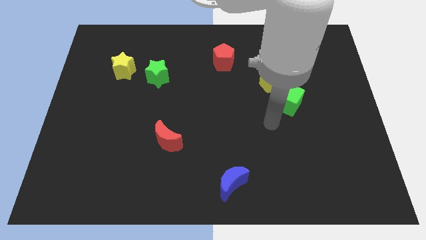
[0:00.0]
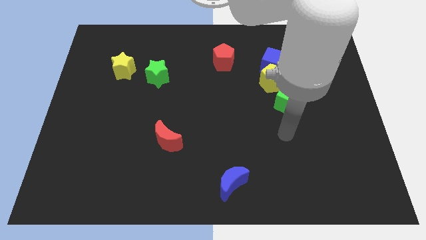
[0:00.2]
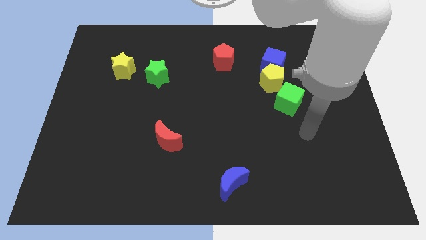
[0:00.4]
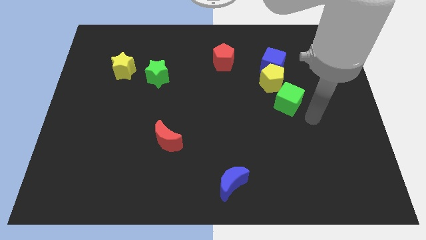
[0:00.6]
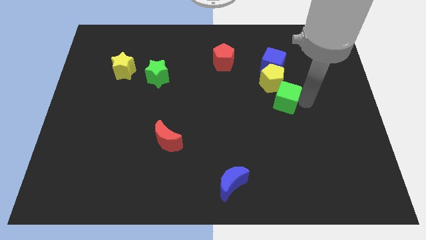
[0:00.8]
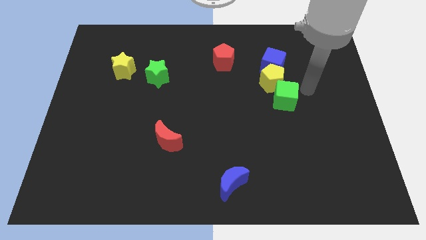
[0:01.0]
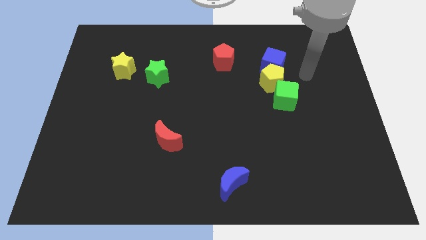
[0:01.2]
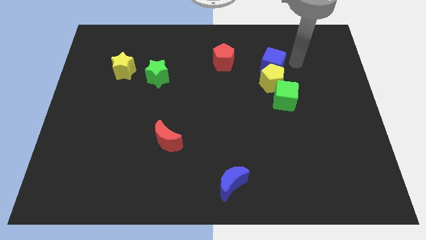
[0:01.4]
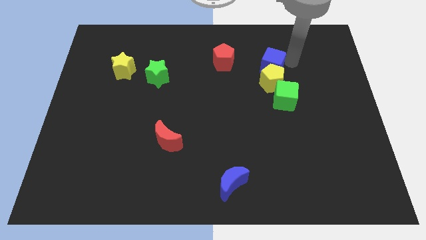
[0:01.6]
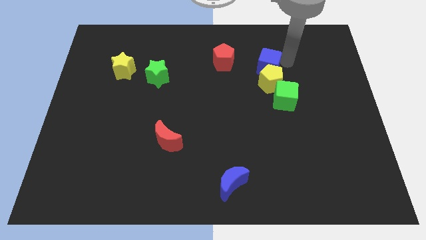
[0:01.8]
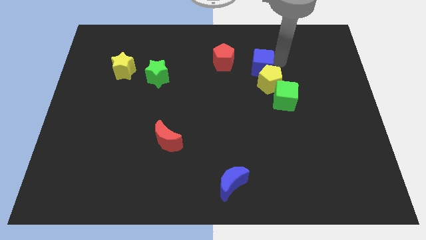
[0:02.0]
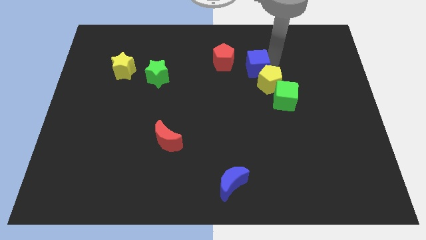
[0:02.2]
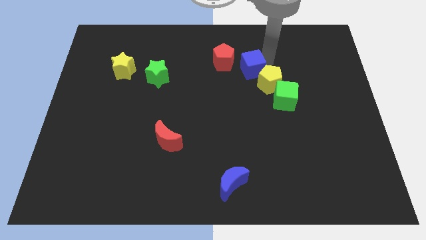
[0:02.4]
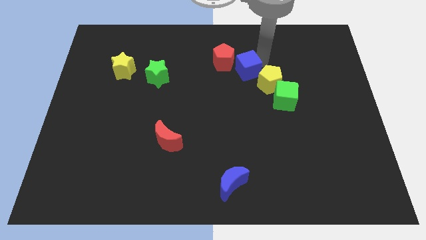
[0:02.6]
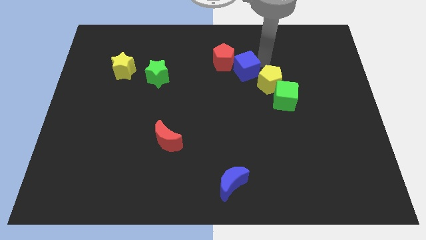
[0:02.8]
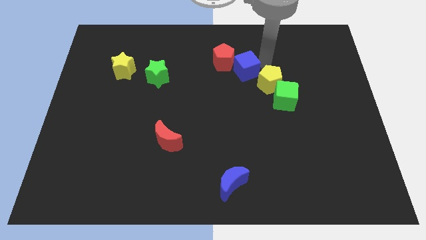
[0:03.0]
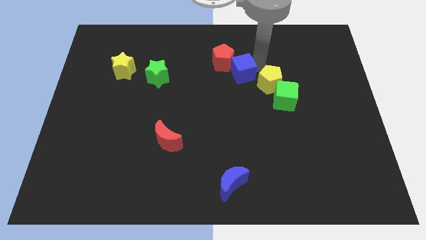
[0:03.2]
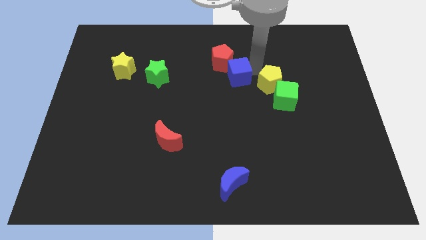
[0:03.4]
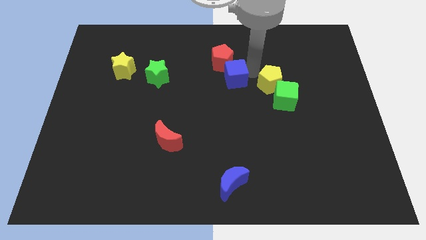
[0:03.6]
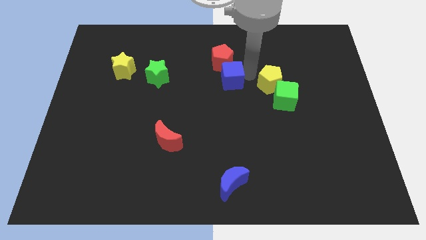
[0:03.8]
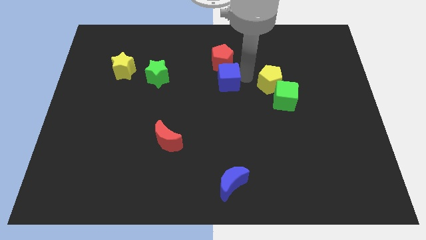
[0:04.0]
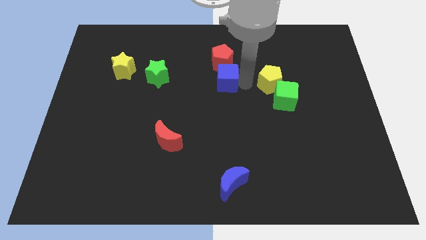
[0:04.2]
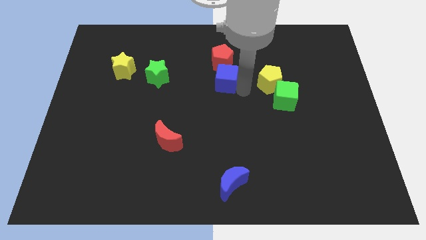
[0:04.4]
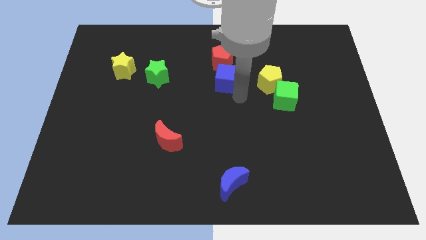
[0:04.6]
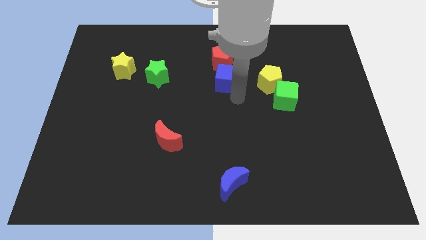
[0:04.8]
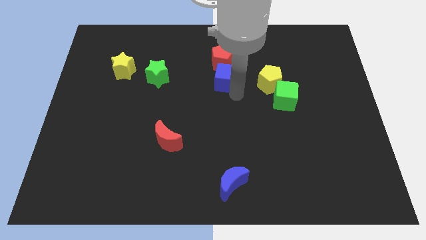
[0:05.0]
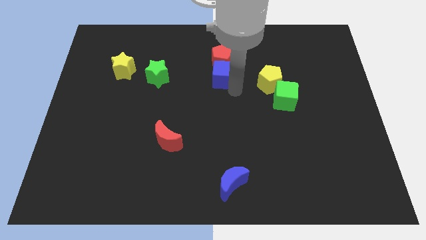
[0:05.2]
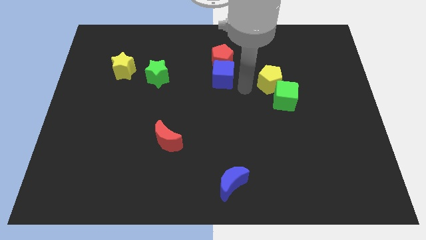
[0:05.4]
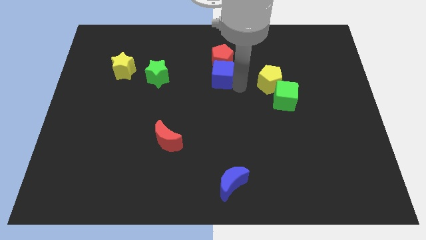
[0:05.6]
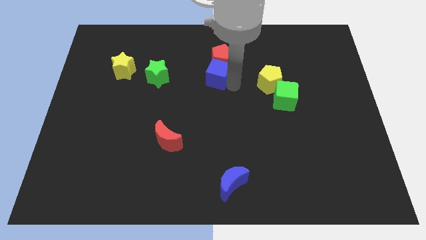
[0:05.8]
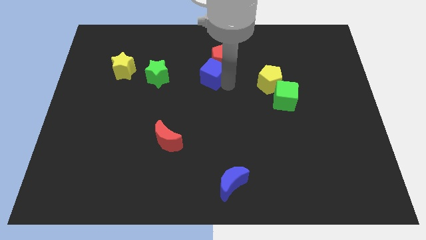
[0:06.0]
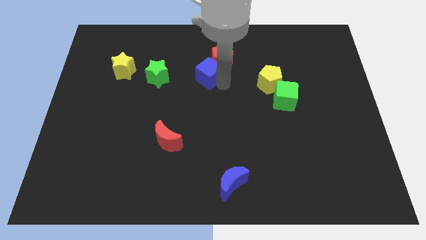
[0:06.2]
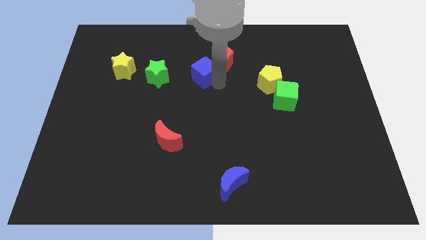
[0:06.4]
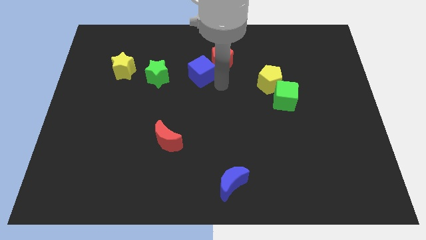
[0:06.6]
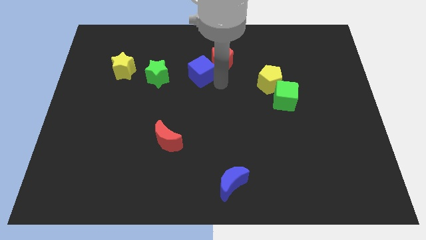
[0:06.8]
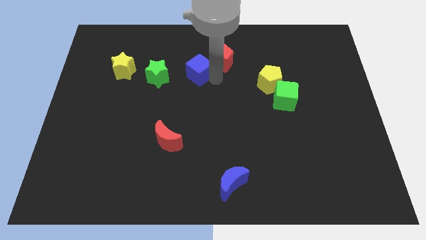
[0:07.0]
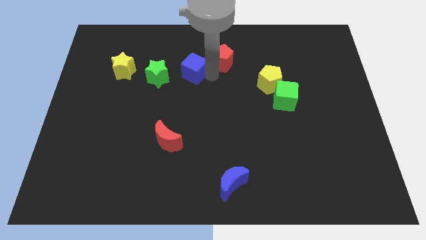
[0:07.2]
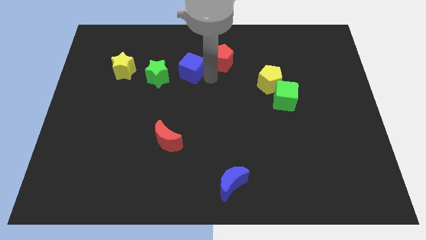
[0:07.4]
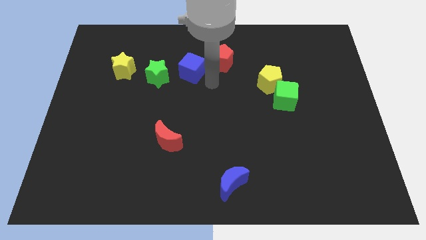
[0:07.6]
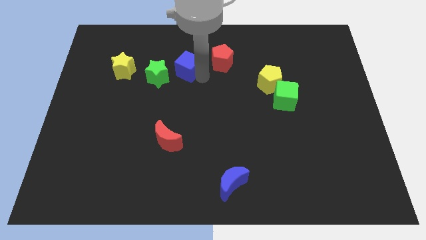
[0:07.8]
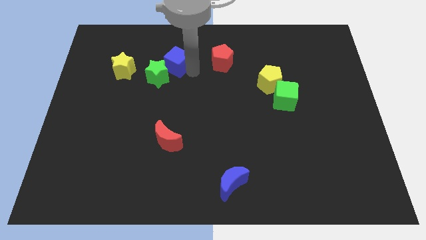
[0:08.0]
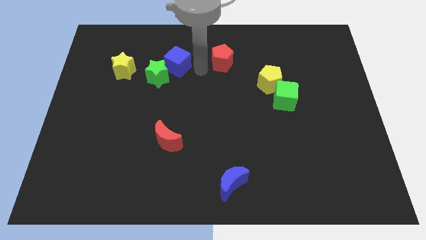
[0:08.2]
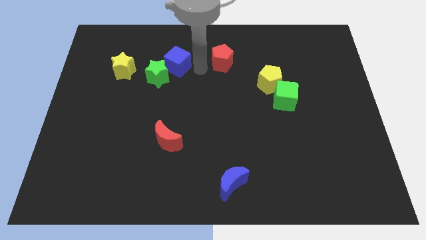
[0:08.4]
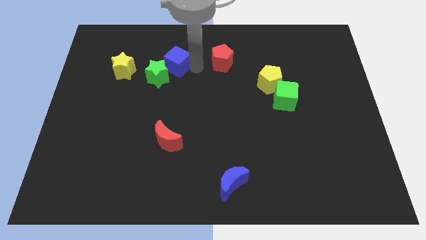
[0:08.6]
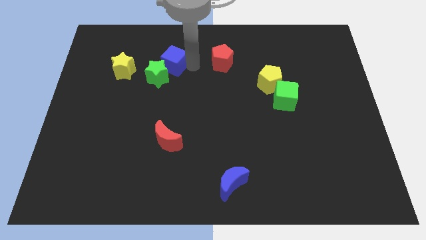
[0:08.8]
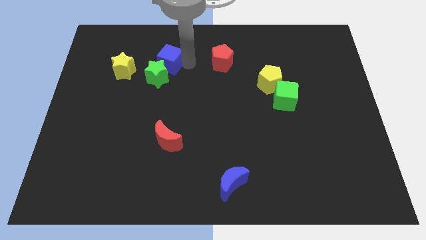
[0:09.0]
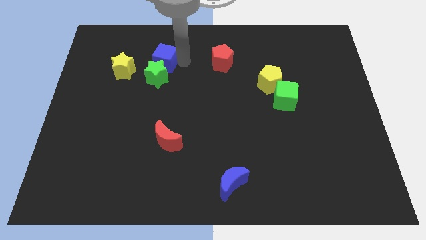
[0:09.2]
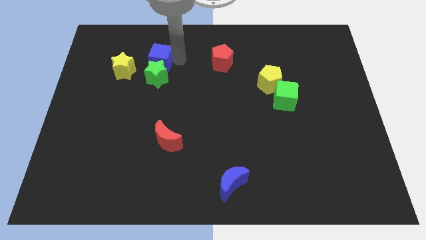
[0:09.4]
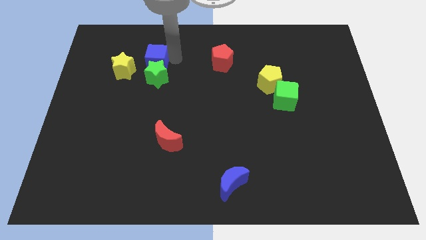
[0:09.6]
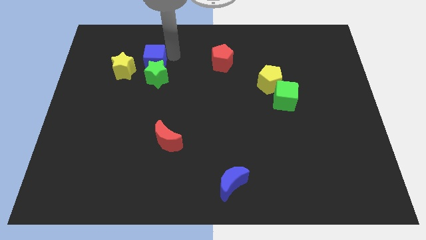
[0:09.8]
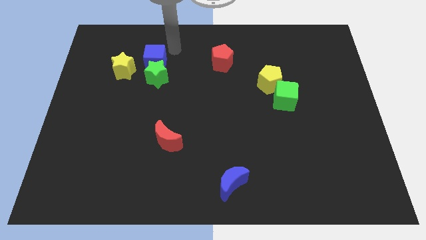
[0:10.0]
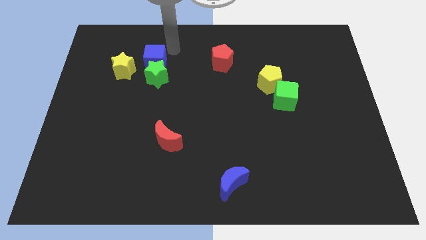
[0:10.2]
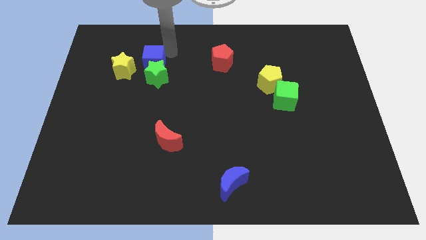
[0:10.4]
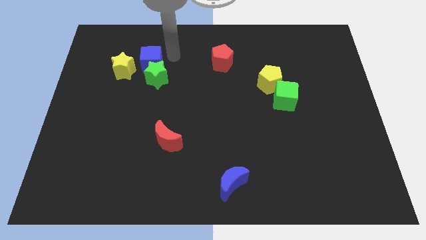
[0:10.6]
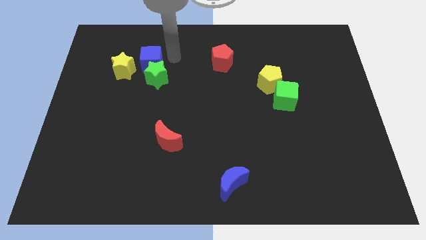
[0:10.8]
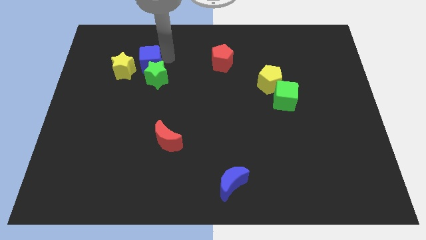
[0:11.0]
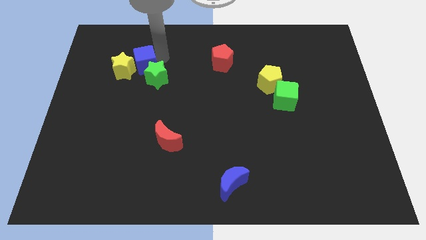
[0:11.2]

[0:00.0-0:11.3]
slide the blue cube close to the yellow star

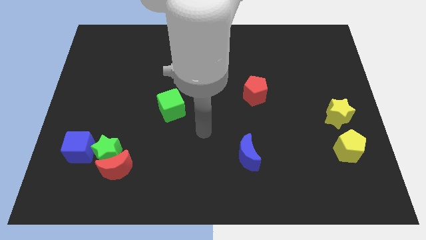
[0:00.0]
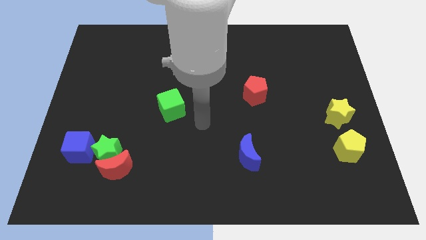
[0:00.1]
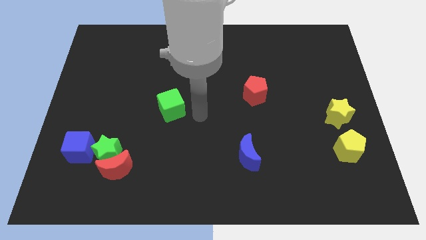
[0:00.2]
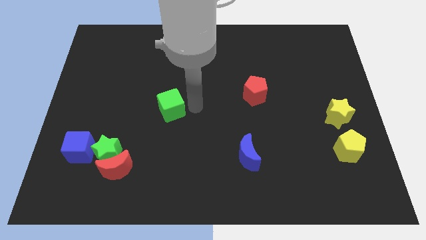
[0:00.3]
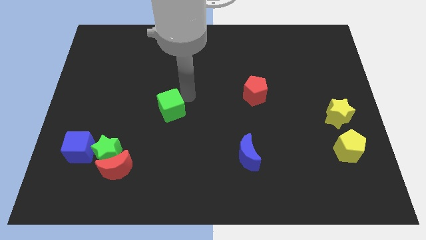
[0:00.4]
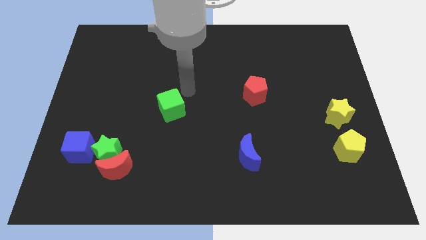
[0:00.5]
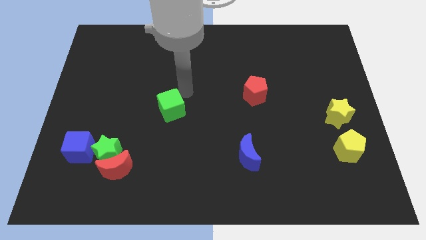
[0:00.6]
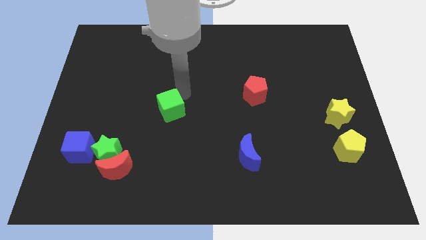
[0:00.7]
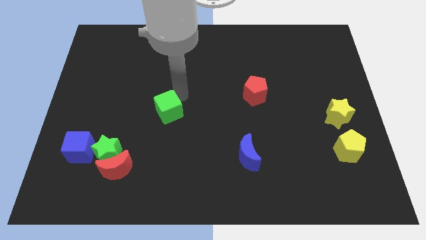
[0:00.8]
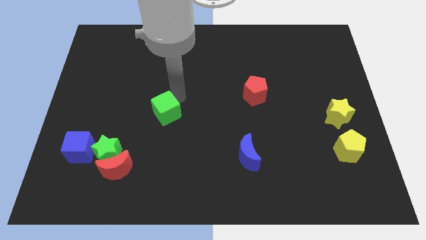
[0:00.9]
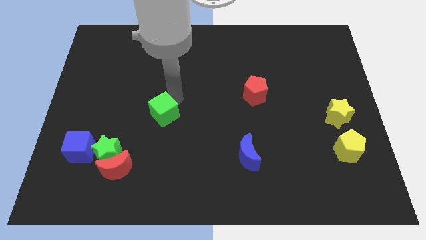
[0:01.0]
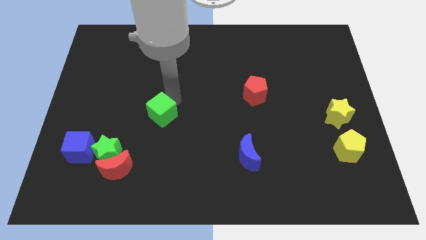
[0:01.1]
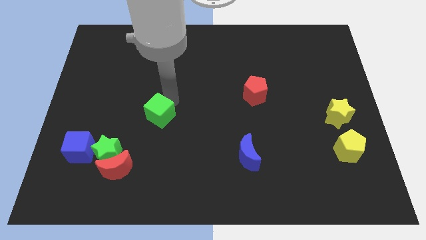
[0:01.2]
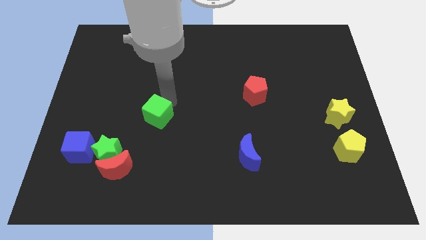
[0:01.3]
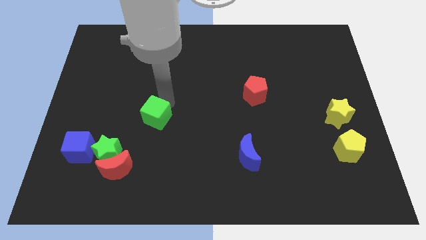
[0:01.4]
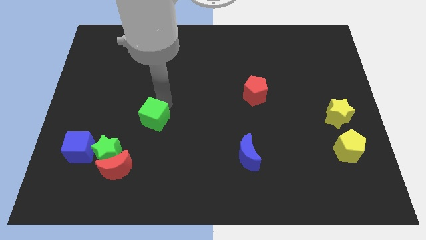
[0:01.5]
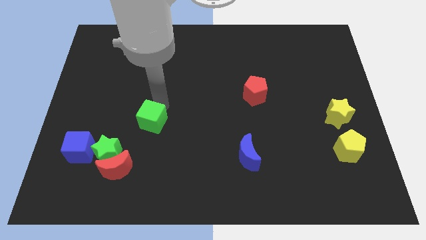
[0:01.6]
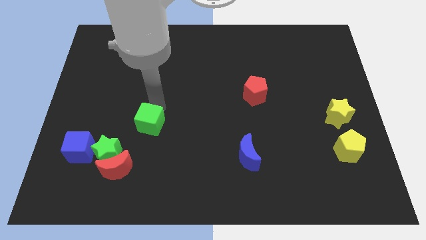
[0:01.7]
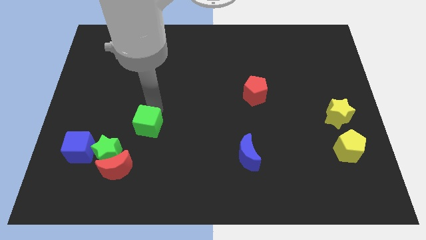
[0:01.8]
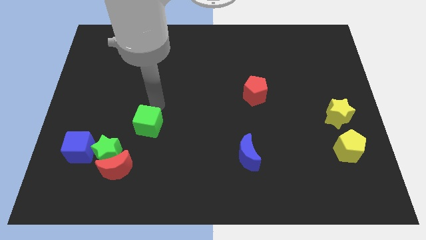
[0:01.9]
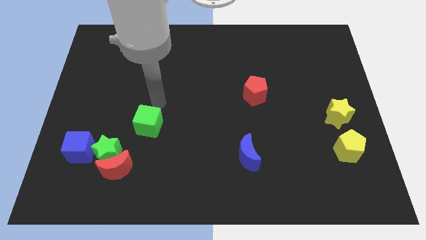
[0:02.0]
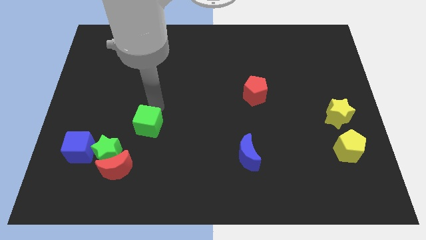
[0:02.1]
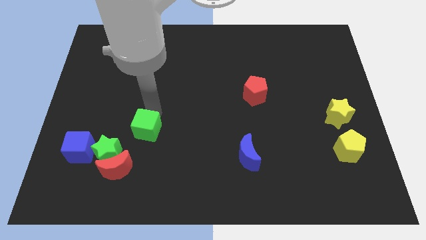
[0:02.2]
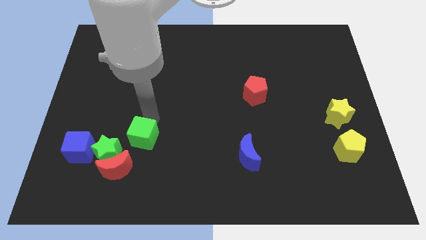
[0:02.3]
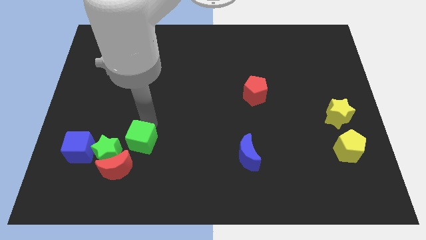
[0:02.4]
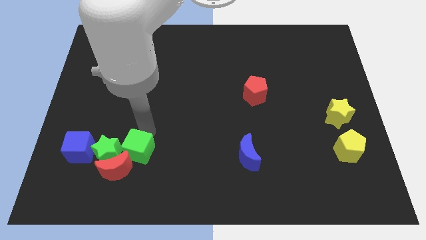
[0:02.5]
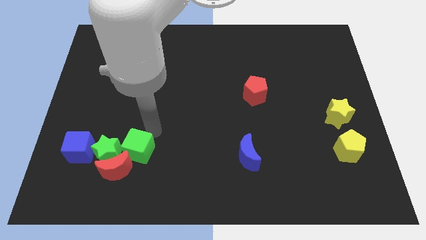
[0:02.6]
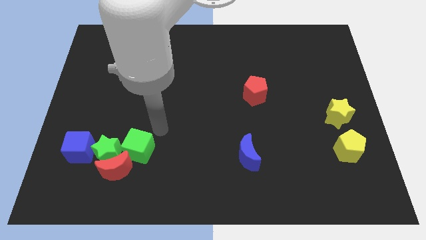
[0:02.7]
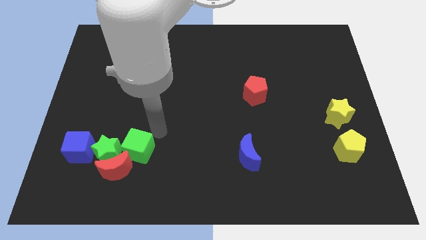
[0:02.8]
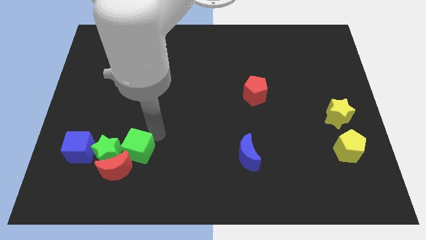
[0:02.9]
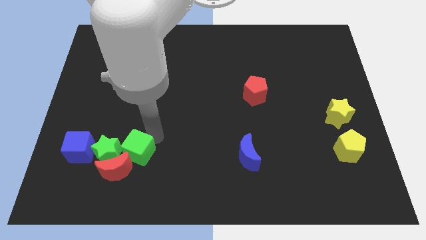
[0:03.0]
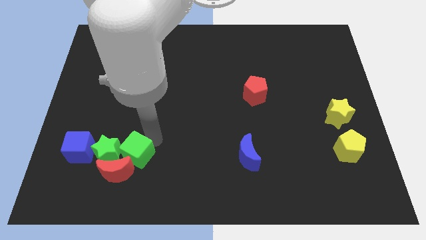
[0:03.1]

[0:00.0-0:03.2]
put the green cube to the red moon
